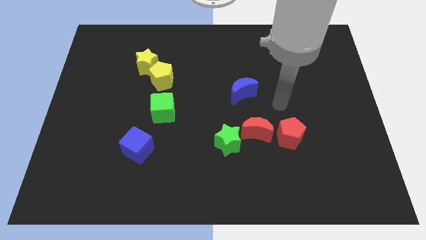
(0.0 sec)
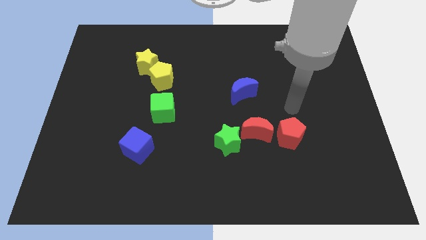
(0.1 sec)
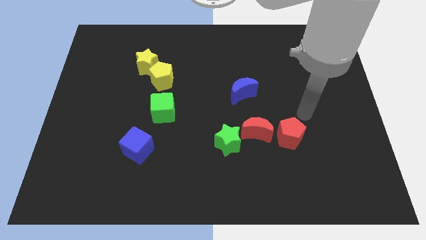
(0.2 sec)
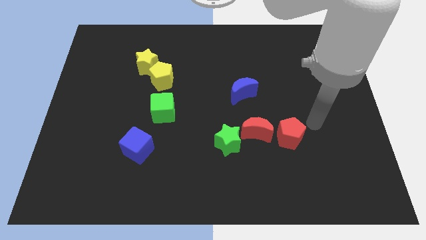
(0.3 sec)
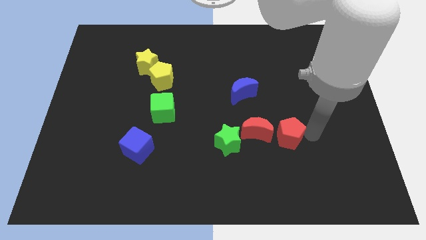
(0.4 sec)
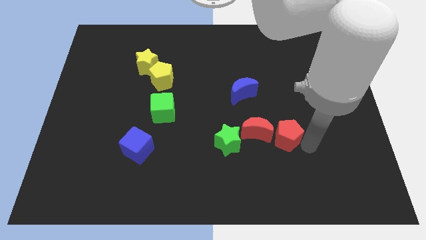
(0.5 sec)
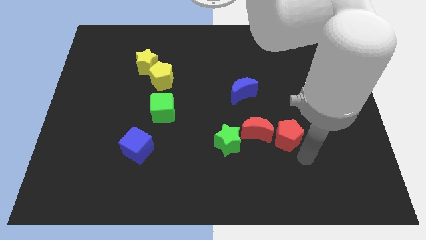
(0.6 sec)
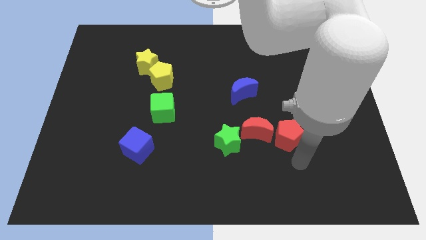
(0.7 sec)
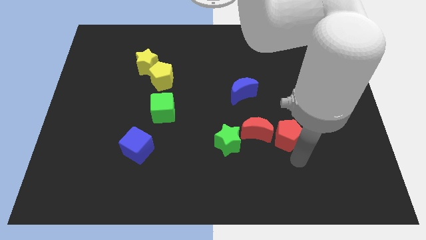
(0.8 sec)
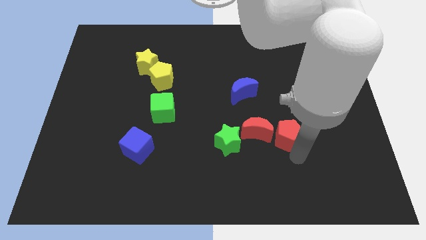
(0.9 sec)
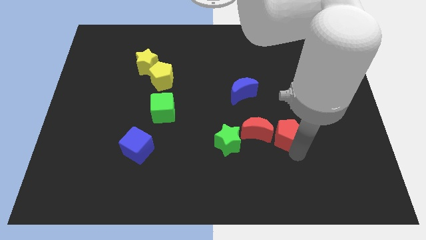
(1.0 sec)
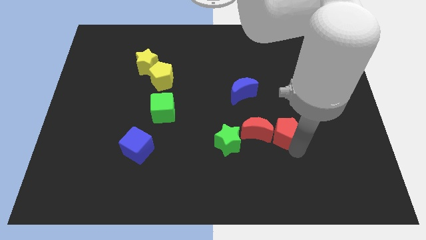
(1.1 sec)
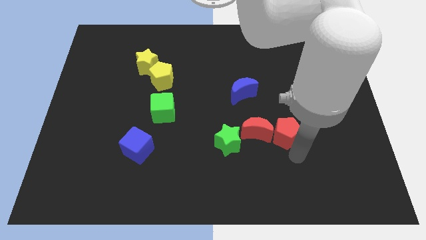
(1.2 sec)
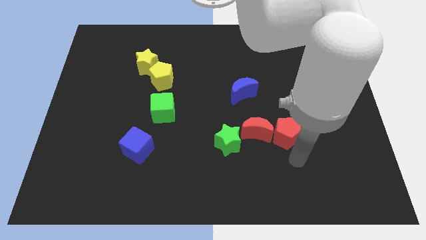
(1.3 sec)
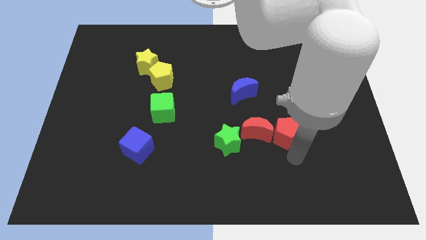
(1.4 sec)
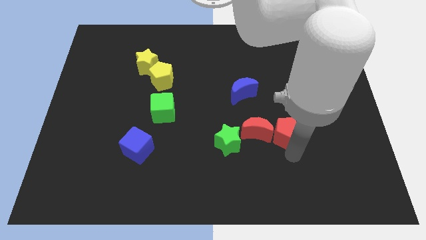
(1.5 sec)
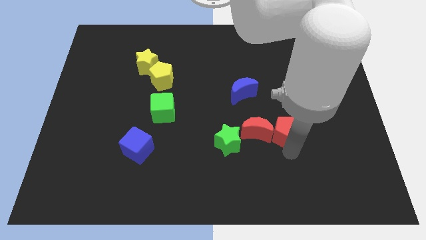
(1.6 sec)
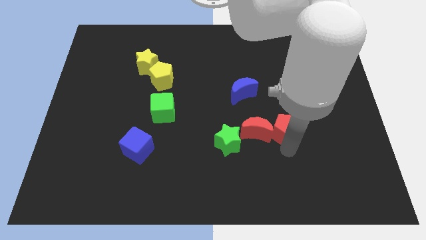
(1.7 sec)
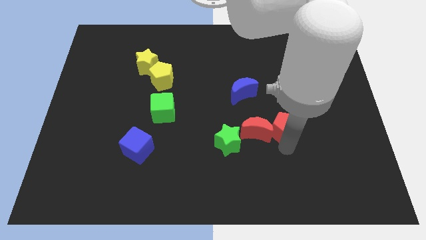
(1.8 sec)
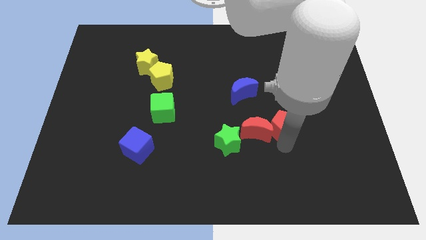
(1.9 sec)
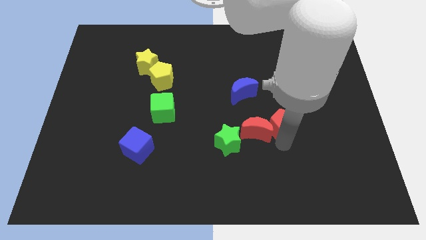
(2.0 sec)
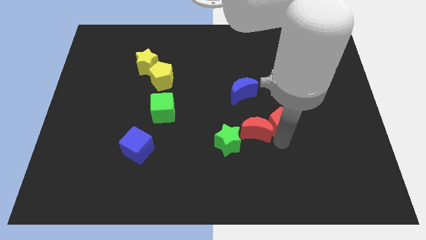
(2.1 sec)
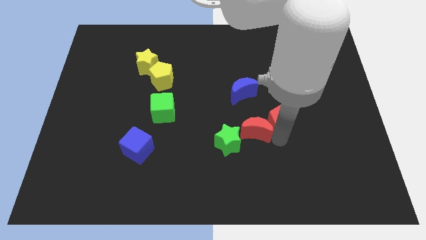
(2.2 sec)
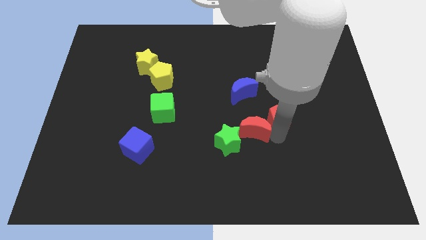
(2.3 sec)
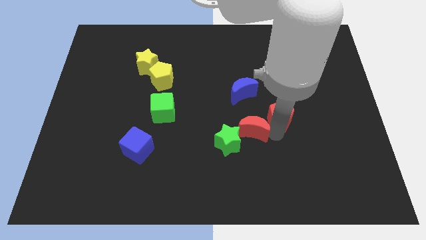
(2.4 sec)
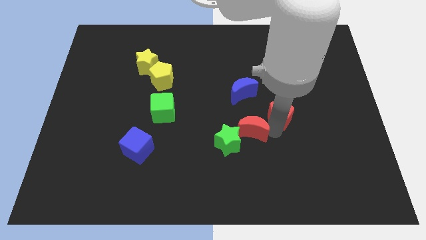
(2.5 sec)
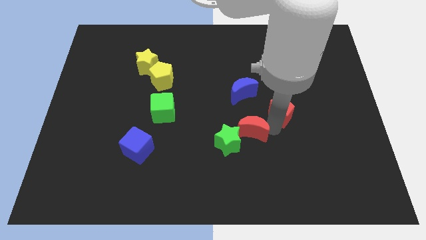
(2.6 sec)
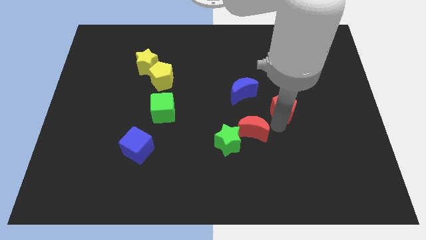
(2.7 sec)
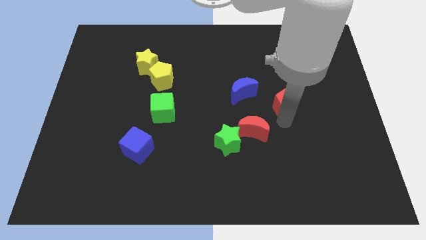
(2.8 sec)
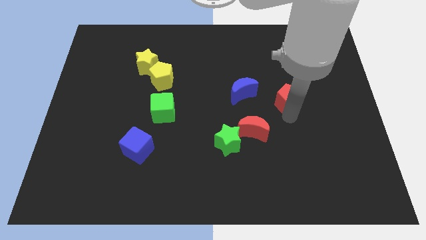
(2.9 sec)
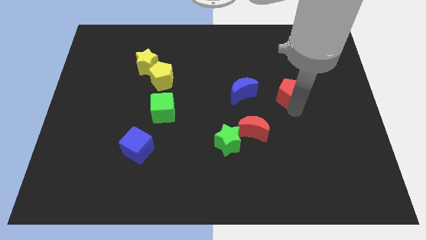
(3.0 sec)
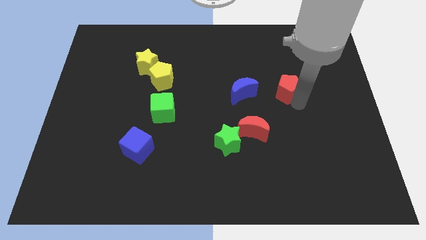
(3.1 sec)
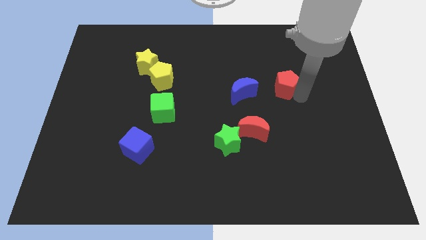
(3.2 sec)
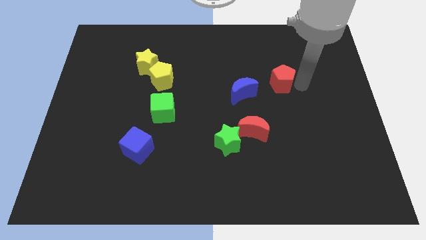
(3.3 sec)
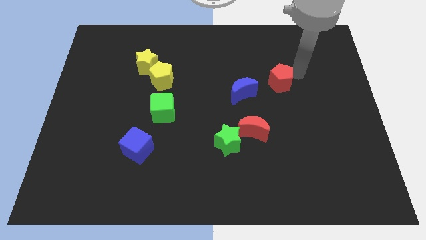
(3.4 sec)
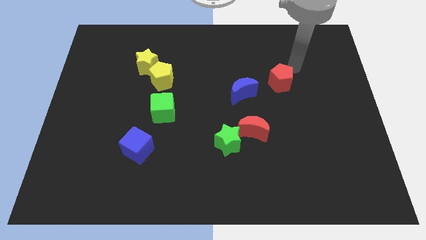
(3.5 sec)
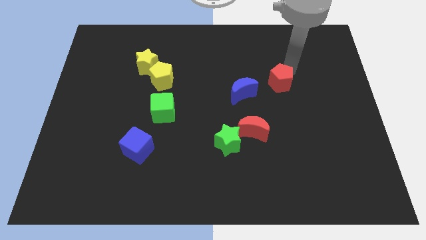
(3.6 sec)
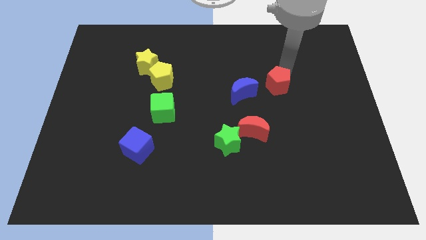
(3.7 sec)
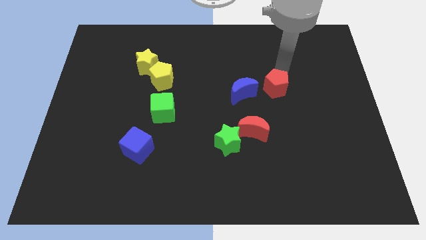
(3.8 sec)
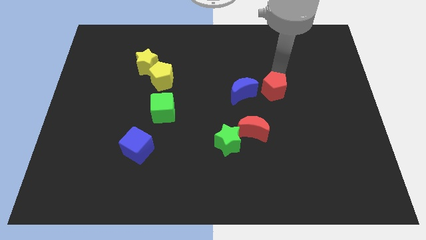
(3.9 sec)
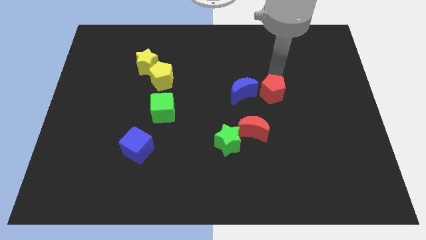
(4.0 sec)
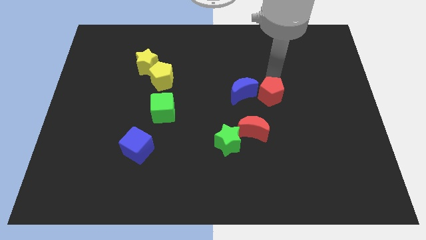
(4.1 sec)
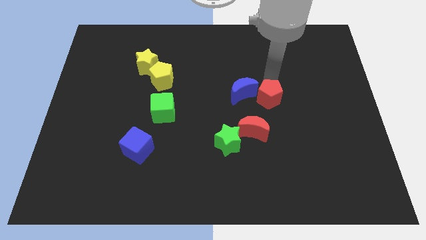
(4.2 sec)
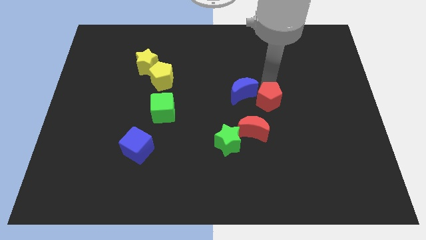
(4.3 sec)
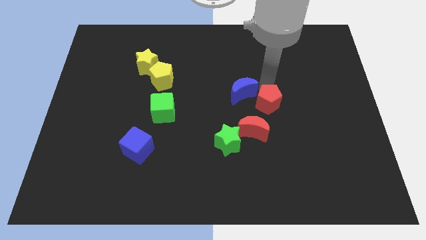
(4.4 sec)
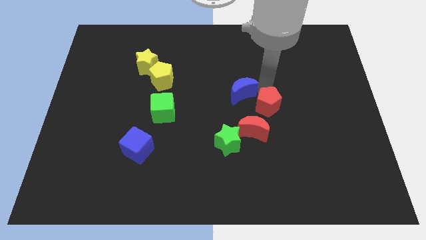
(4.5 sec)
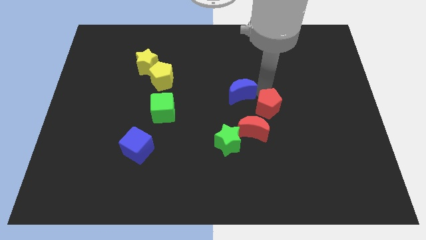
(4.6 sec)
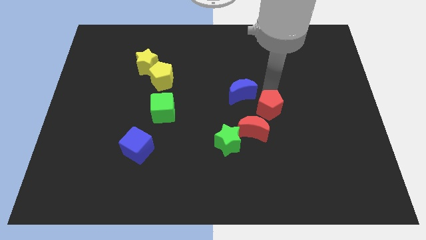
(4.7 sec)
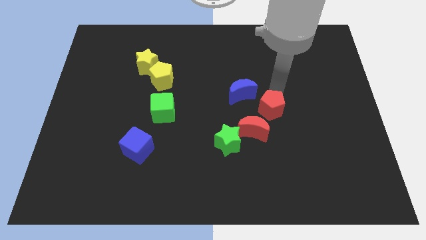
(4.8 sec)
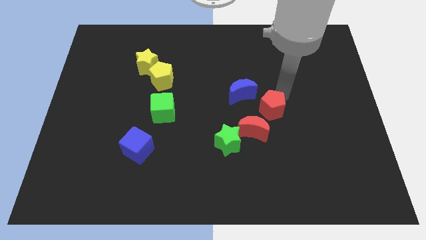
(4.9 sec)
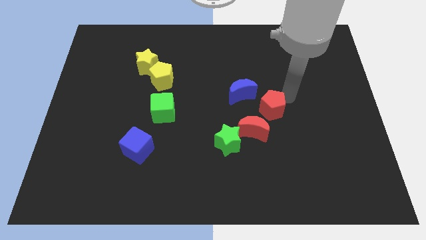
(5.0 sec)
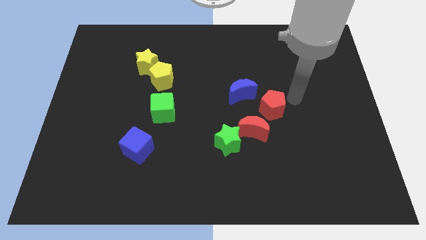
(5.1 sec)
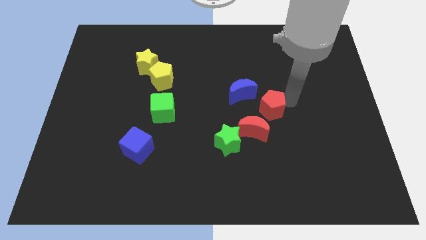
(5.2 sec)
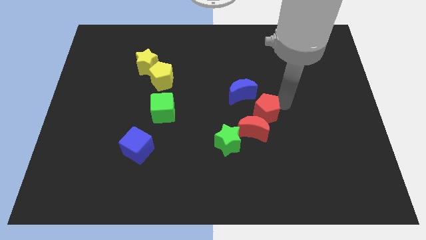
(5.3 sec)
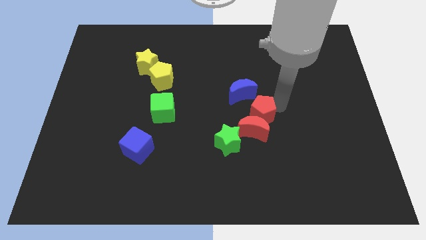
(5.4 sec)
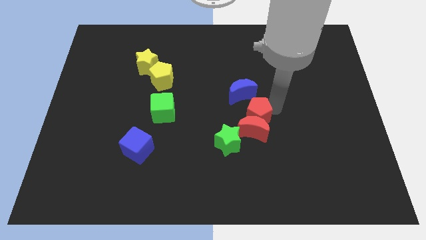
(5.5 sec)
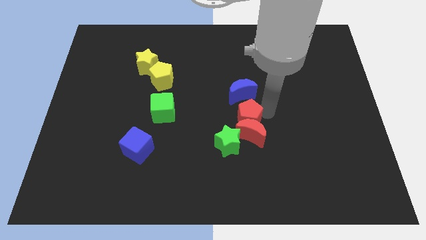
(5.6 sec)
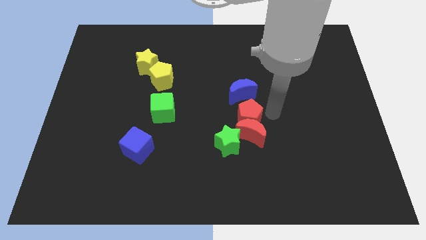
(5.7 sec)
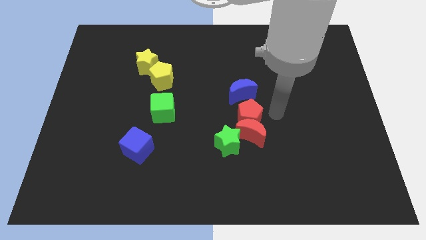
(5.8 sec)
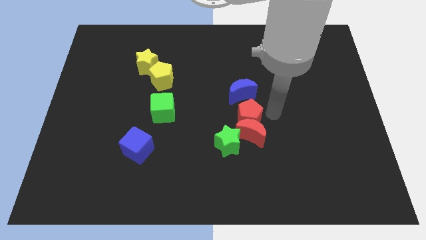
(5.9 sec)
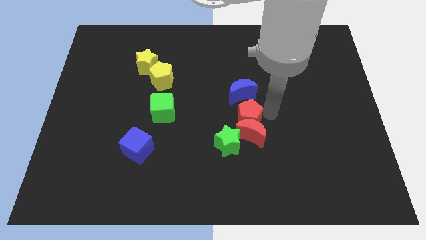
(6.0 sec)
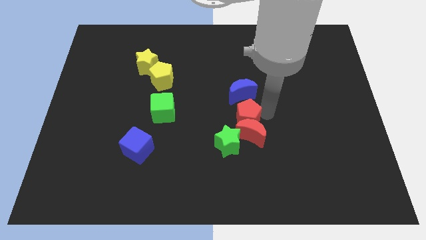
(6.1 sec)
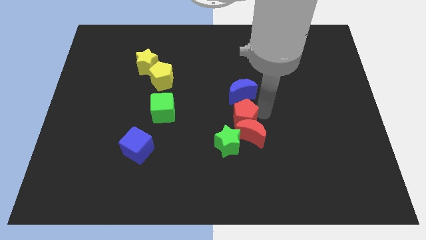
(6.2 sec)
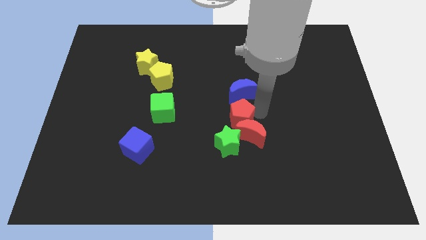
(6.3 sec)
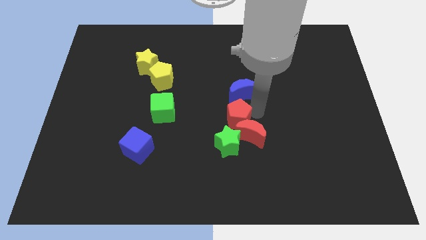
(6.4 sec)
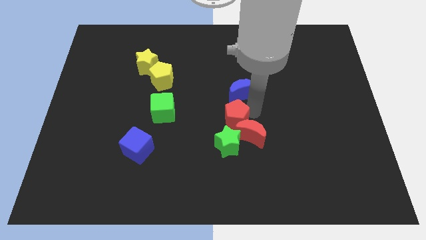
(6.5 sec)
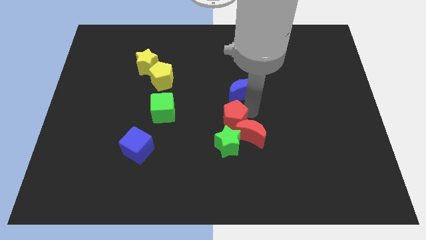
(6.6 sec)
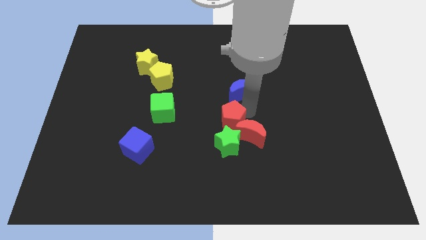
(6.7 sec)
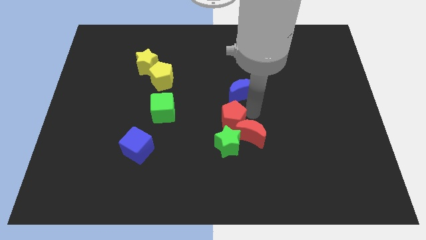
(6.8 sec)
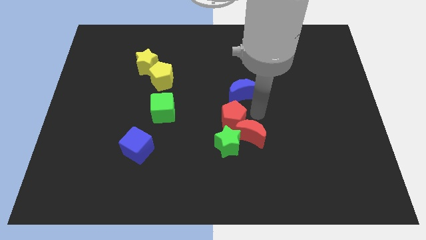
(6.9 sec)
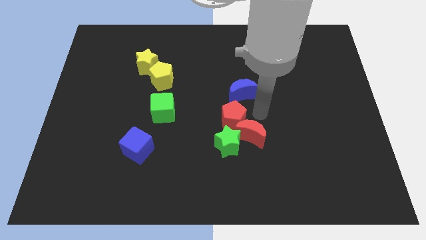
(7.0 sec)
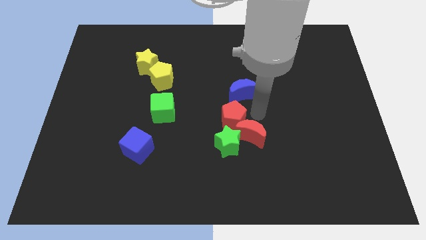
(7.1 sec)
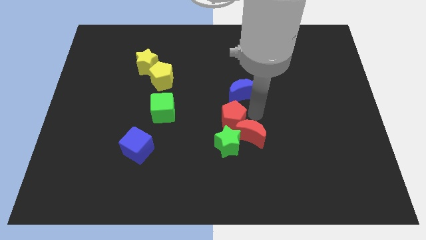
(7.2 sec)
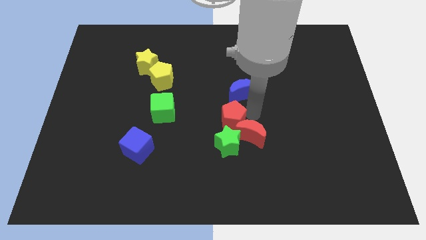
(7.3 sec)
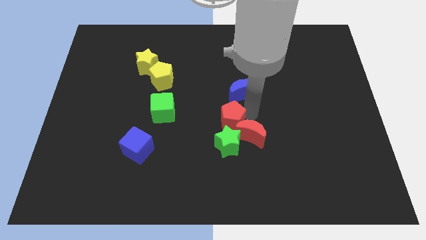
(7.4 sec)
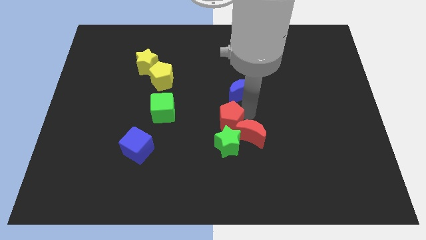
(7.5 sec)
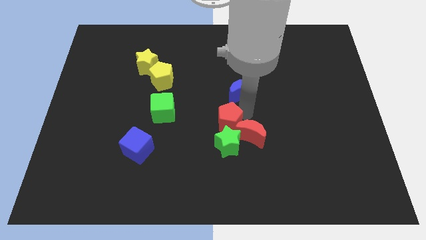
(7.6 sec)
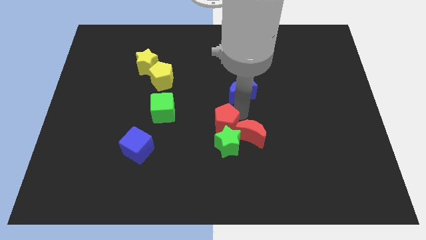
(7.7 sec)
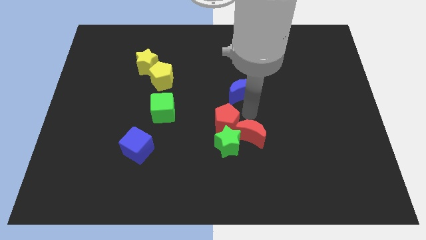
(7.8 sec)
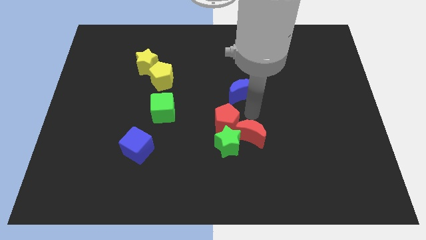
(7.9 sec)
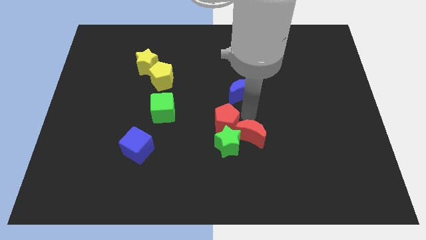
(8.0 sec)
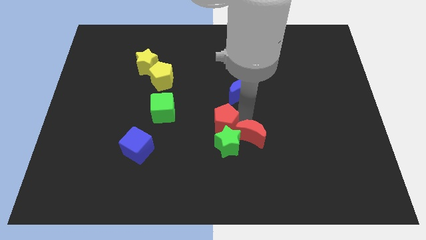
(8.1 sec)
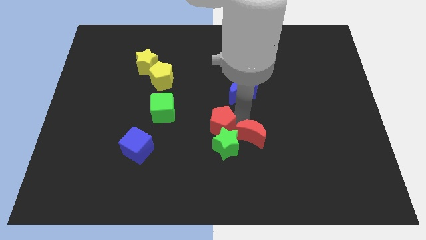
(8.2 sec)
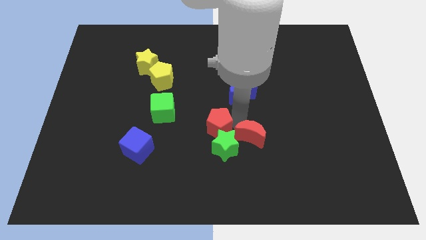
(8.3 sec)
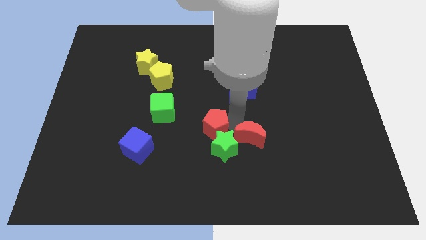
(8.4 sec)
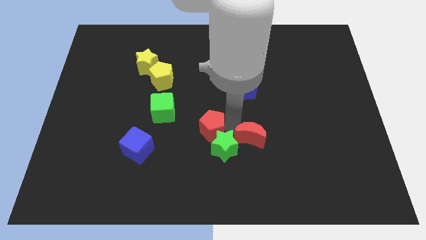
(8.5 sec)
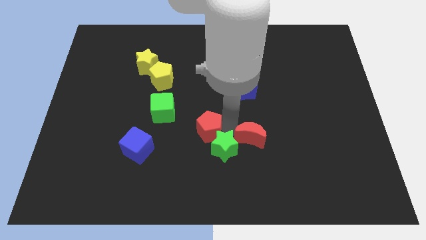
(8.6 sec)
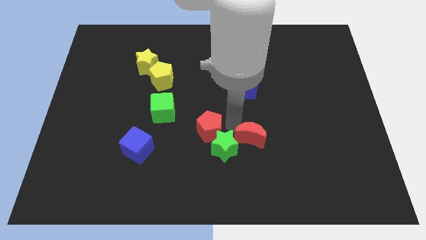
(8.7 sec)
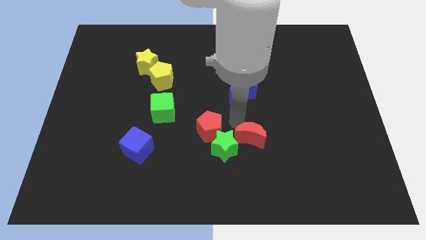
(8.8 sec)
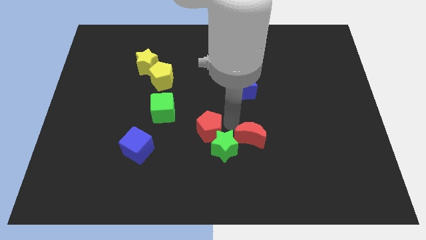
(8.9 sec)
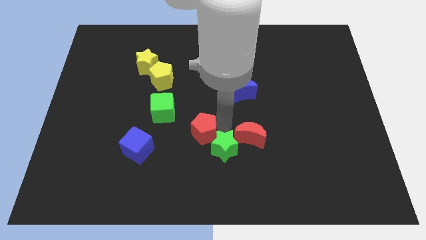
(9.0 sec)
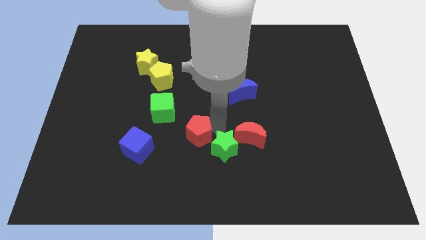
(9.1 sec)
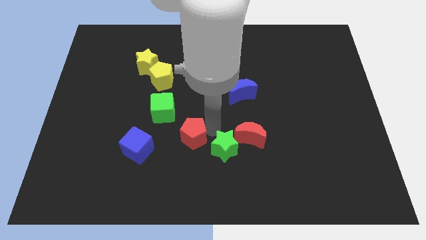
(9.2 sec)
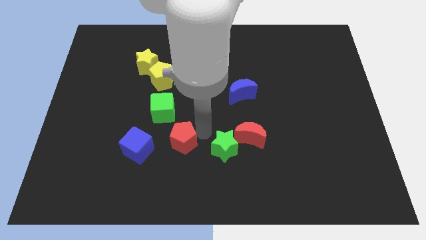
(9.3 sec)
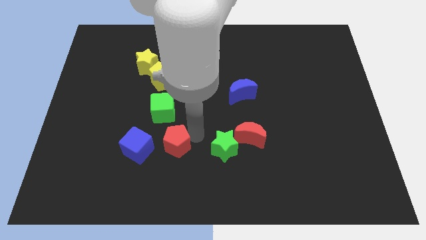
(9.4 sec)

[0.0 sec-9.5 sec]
put the red pentagon to the bottom of the green cube
